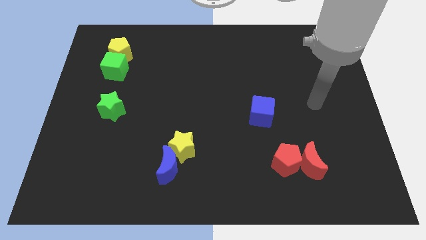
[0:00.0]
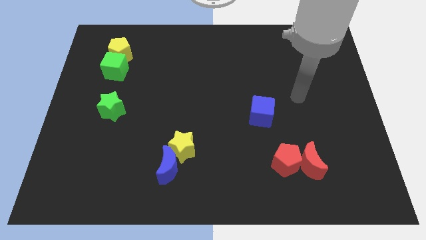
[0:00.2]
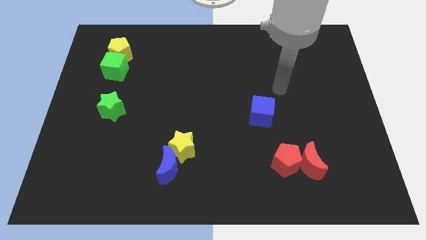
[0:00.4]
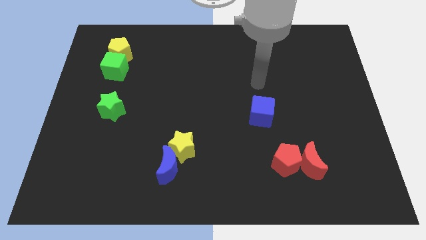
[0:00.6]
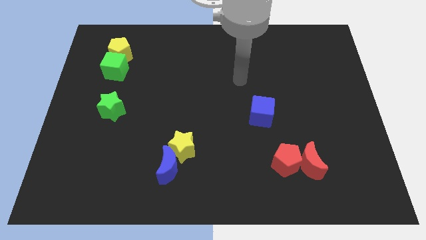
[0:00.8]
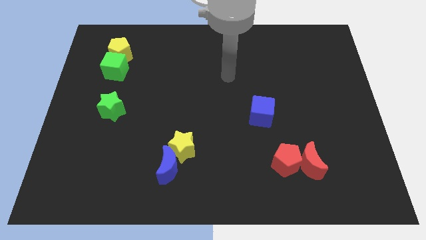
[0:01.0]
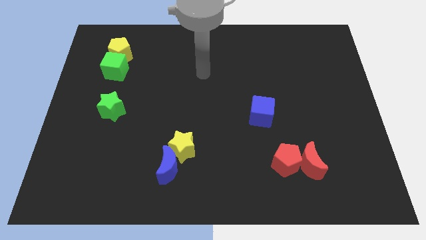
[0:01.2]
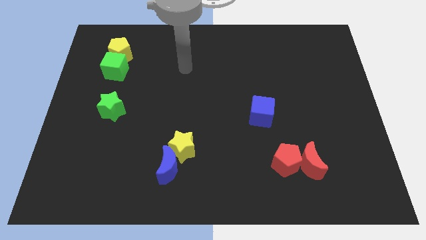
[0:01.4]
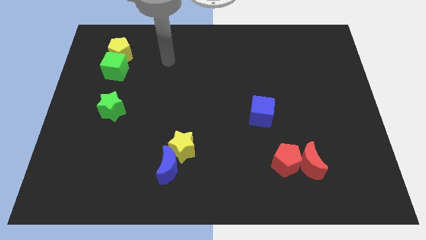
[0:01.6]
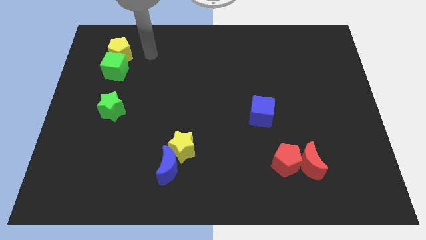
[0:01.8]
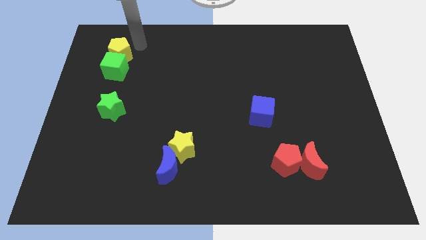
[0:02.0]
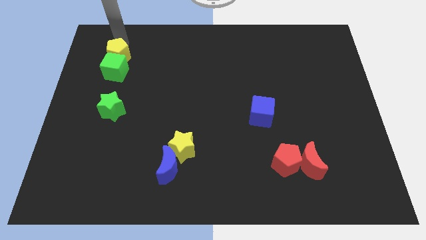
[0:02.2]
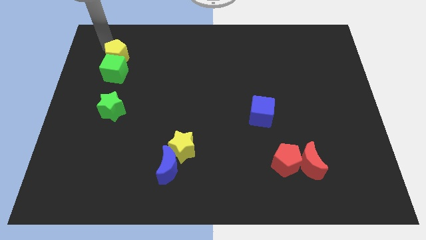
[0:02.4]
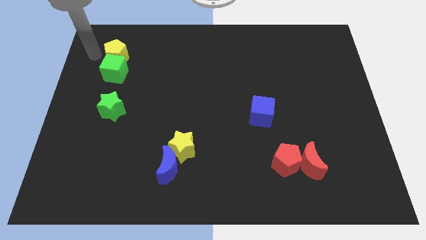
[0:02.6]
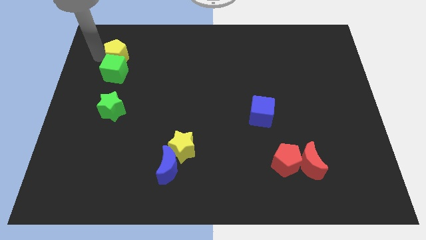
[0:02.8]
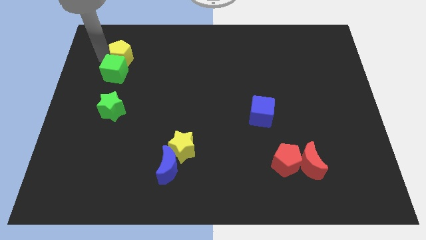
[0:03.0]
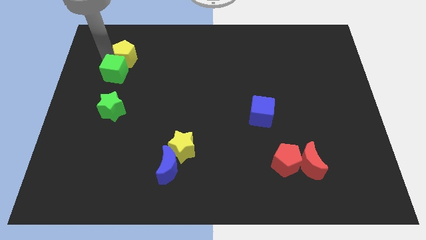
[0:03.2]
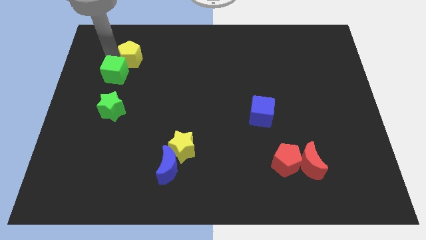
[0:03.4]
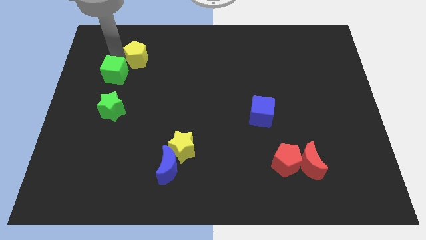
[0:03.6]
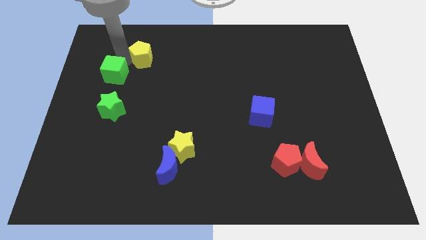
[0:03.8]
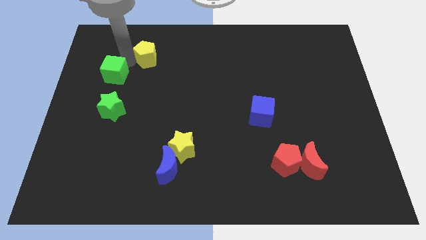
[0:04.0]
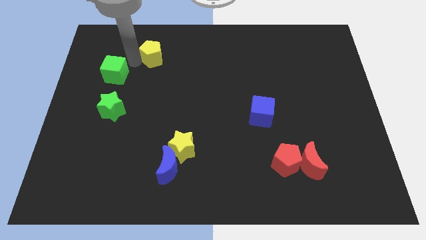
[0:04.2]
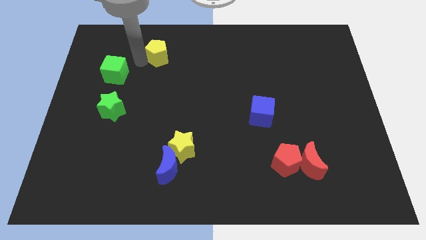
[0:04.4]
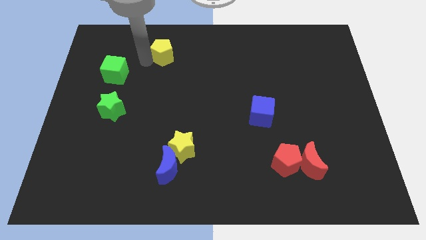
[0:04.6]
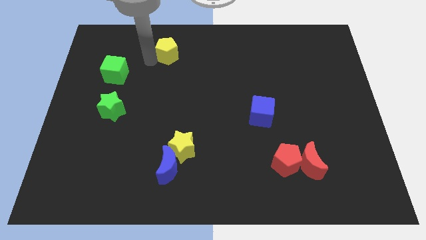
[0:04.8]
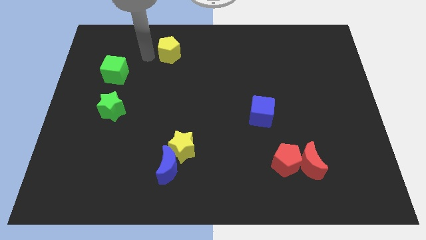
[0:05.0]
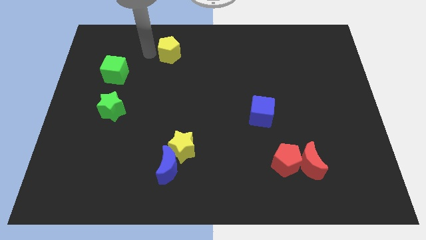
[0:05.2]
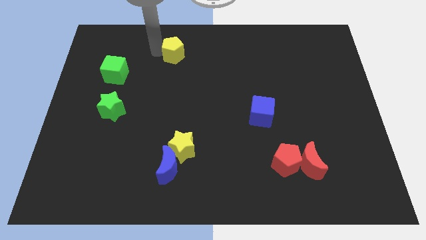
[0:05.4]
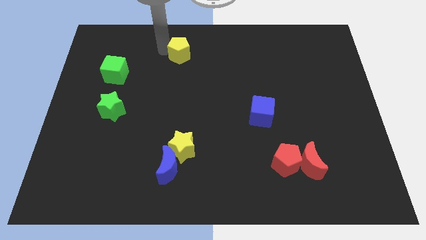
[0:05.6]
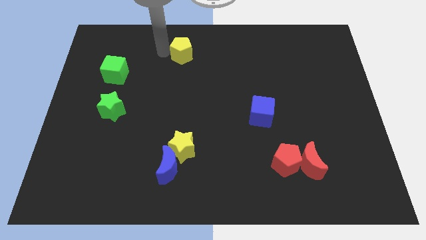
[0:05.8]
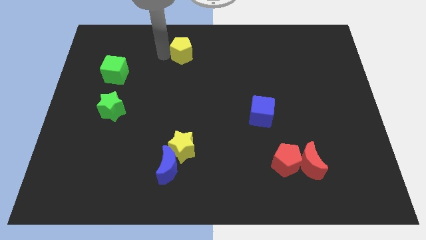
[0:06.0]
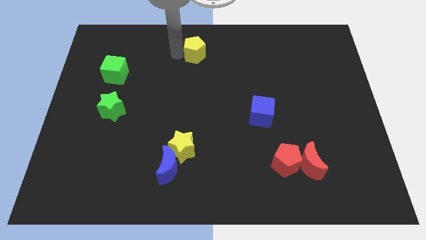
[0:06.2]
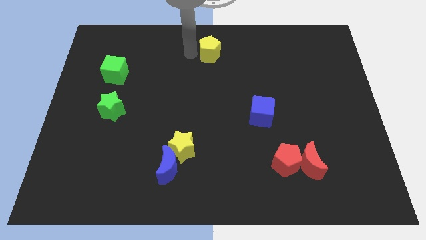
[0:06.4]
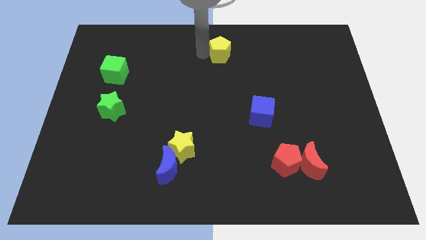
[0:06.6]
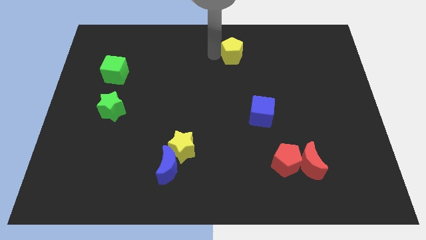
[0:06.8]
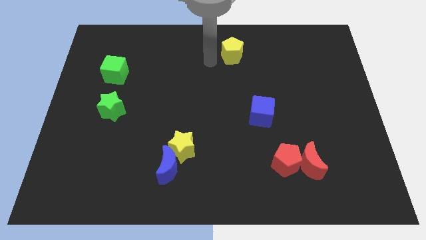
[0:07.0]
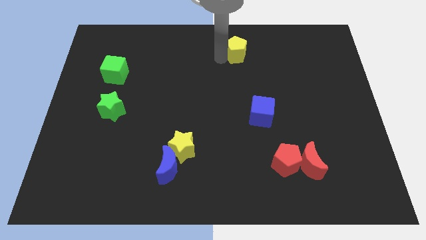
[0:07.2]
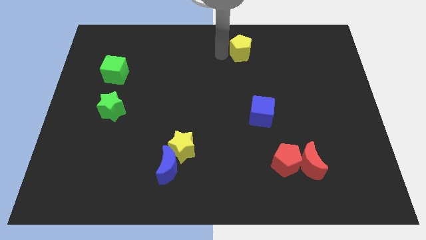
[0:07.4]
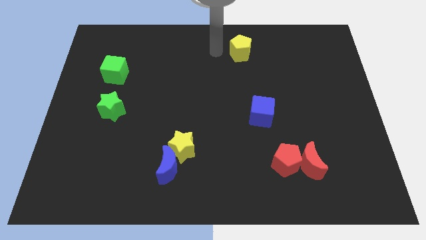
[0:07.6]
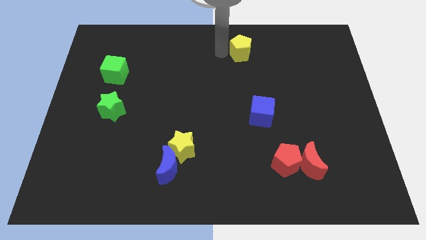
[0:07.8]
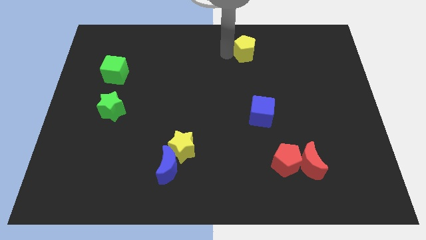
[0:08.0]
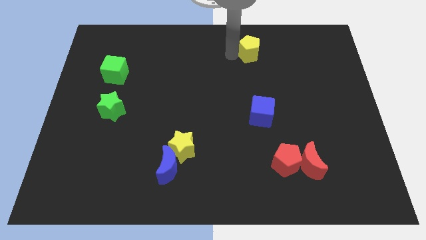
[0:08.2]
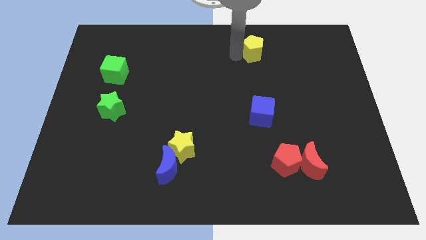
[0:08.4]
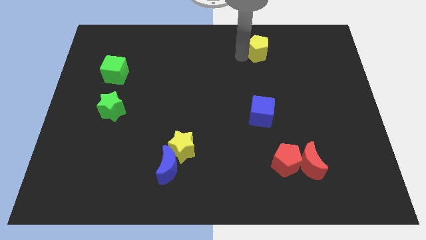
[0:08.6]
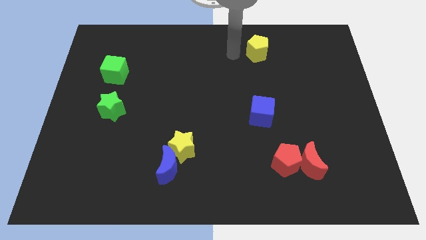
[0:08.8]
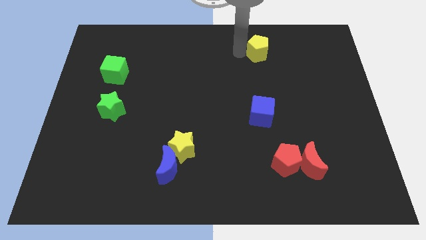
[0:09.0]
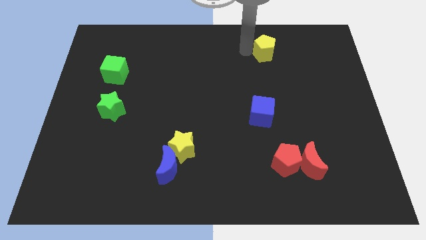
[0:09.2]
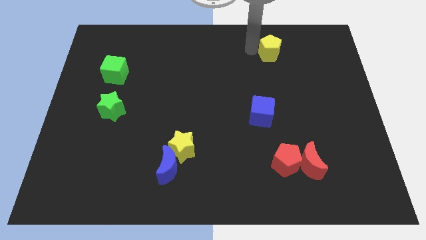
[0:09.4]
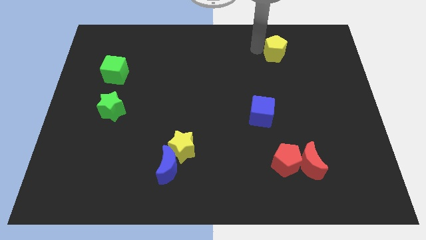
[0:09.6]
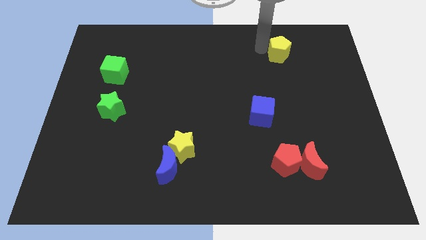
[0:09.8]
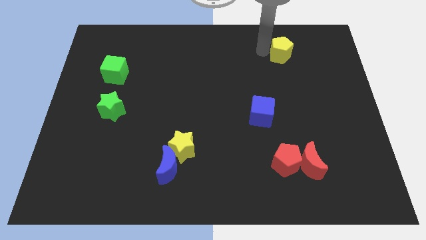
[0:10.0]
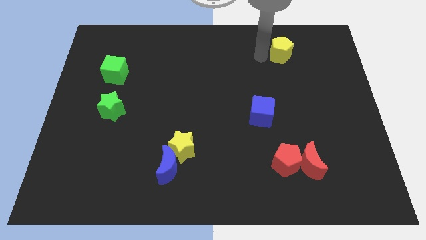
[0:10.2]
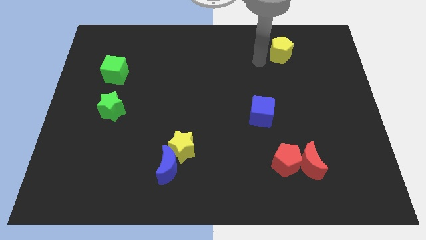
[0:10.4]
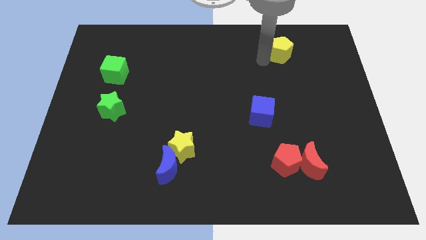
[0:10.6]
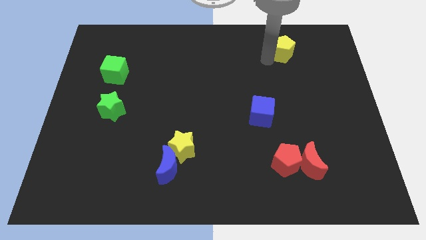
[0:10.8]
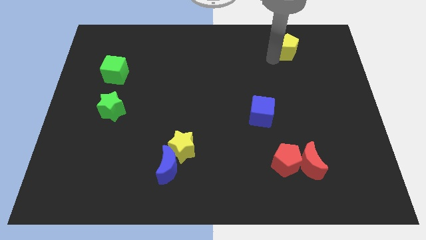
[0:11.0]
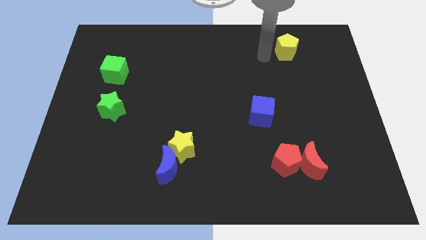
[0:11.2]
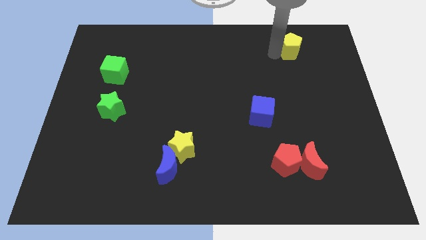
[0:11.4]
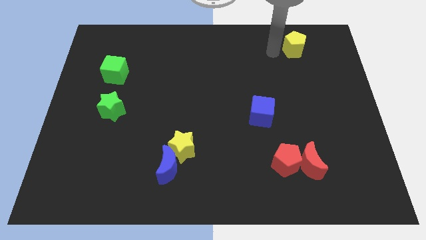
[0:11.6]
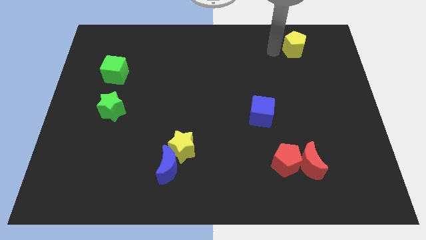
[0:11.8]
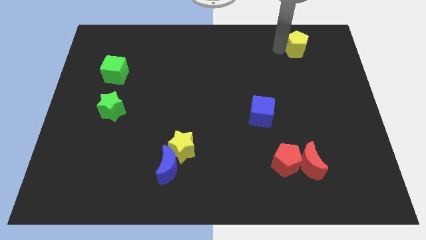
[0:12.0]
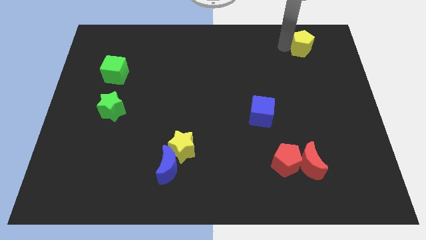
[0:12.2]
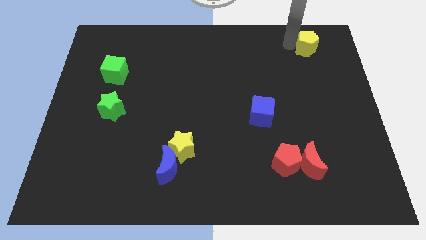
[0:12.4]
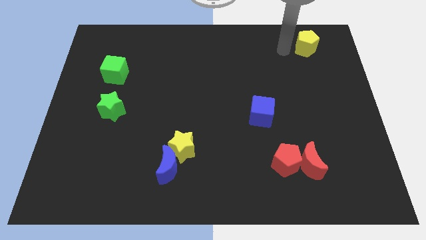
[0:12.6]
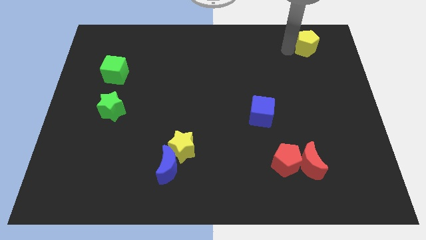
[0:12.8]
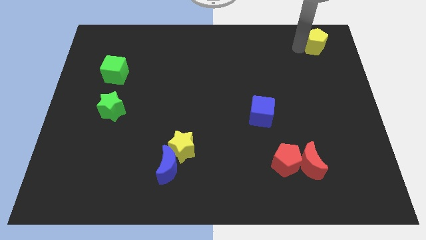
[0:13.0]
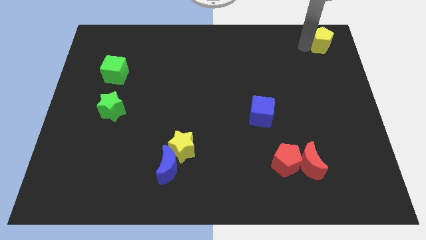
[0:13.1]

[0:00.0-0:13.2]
slide the yellow pentagon to the top right
